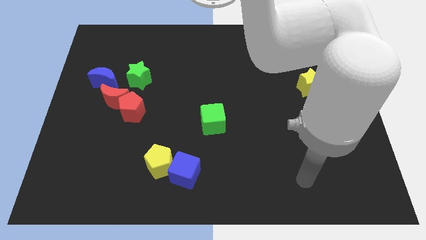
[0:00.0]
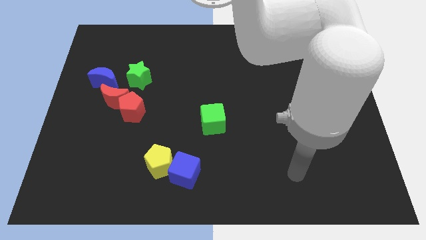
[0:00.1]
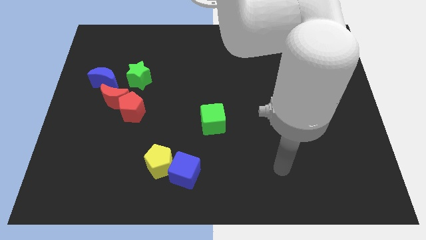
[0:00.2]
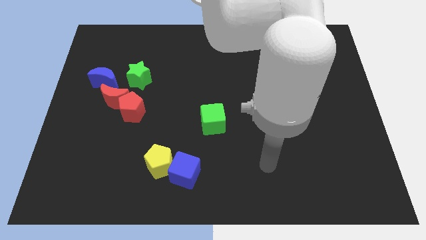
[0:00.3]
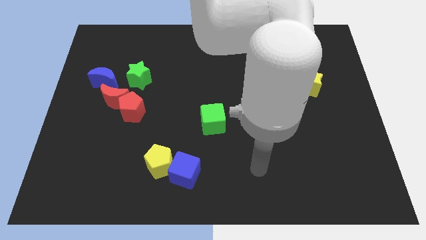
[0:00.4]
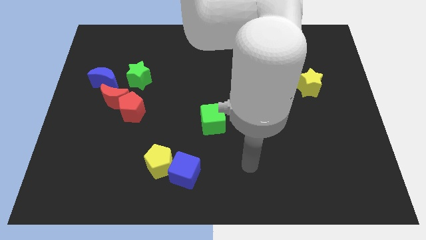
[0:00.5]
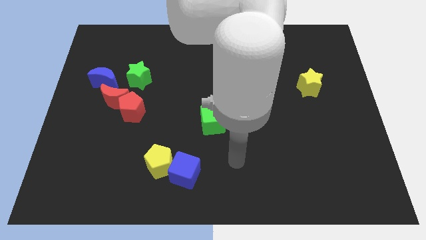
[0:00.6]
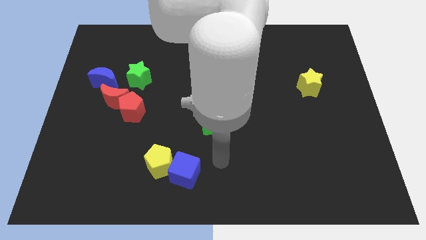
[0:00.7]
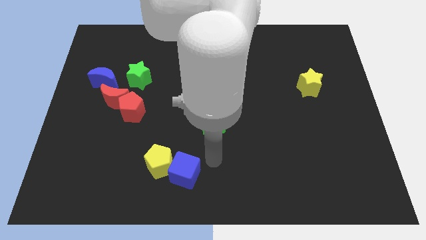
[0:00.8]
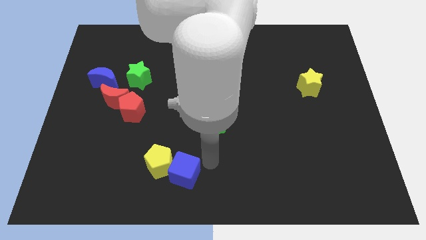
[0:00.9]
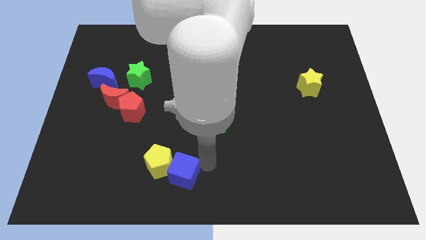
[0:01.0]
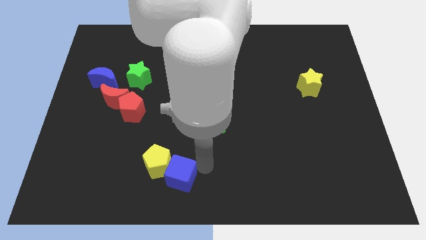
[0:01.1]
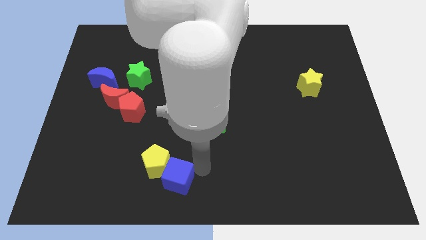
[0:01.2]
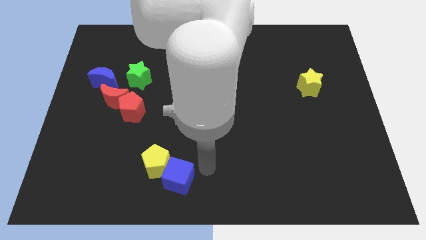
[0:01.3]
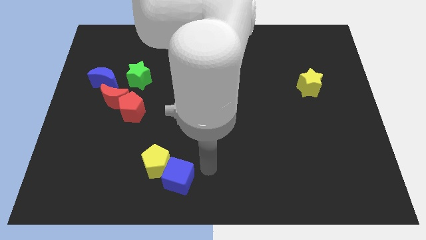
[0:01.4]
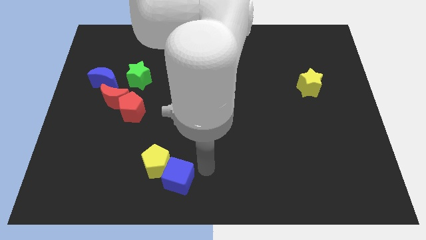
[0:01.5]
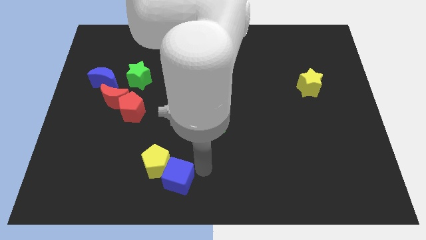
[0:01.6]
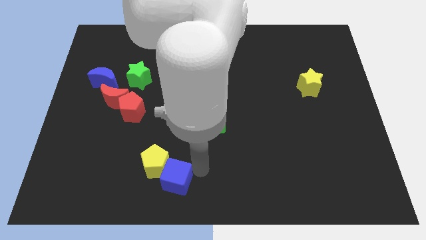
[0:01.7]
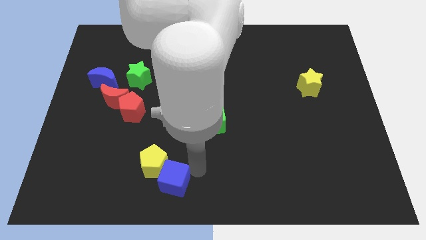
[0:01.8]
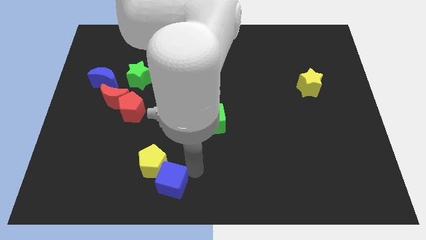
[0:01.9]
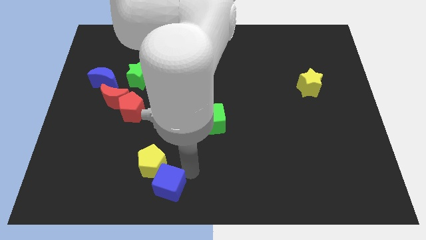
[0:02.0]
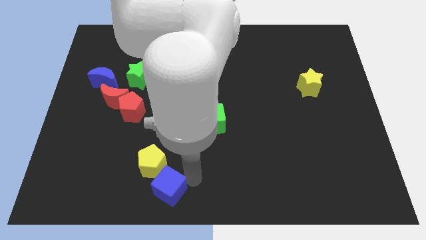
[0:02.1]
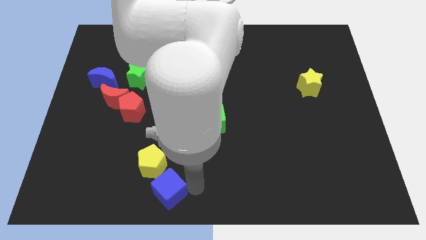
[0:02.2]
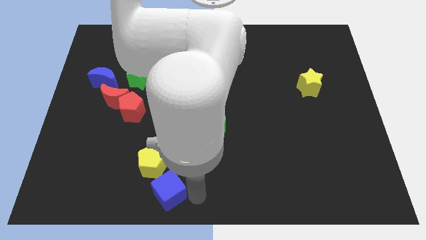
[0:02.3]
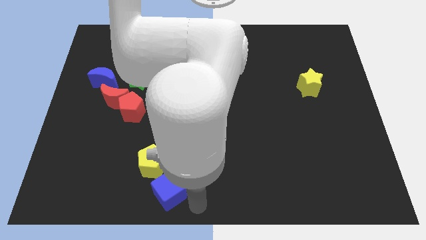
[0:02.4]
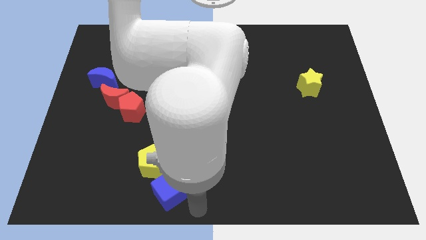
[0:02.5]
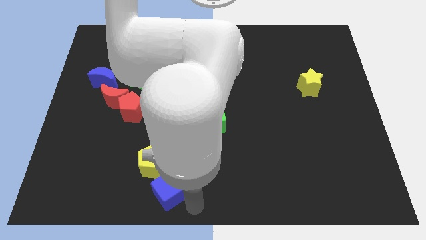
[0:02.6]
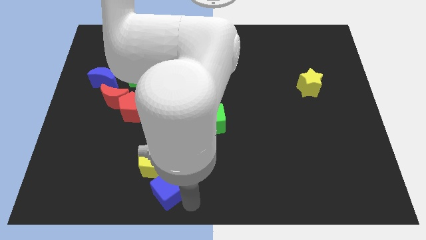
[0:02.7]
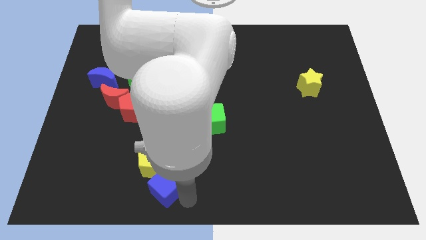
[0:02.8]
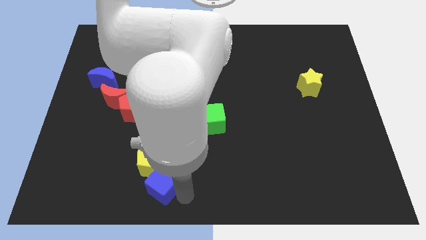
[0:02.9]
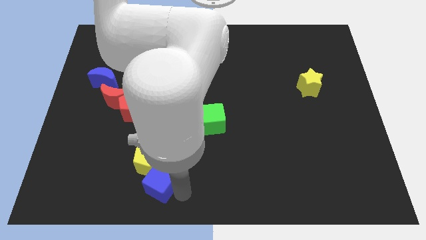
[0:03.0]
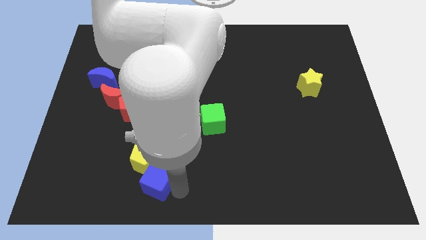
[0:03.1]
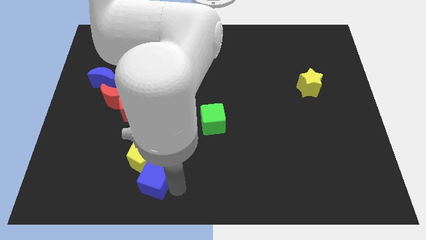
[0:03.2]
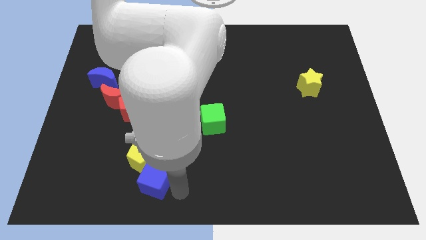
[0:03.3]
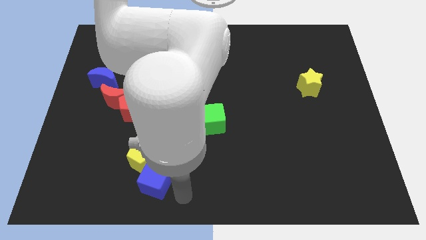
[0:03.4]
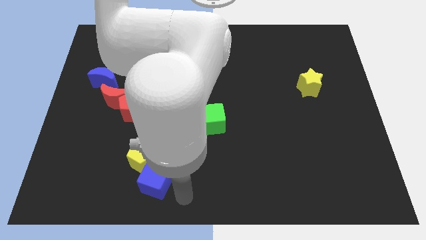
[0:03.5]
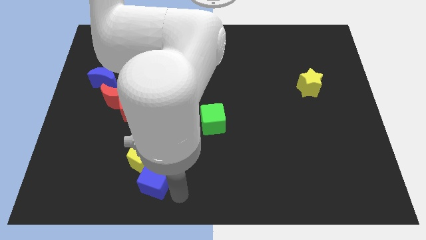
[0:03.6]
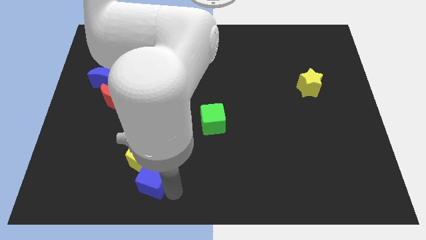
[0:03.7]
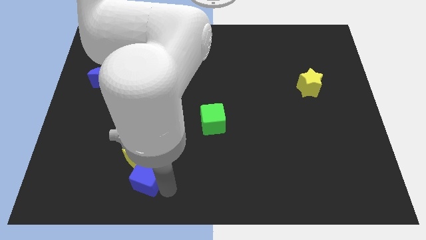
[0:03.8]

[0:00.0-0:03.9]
slide the blue cube a little bit left

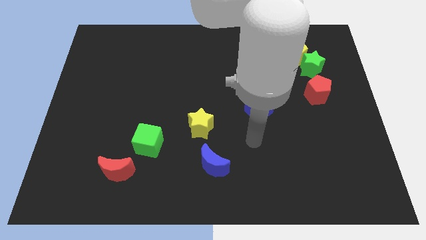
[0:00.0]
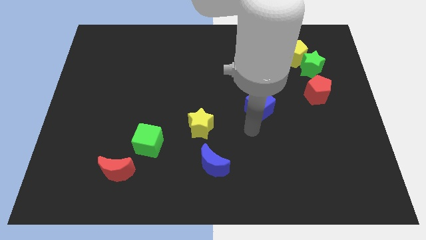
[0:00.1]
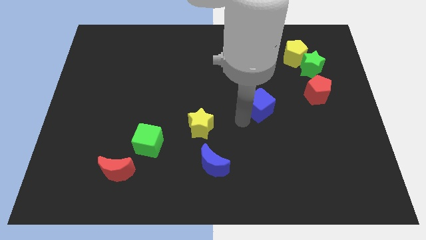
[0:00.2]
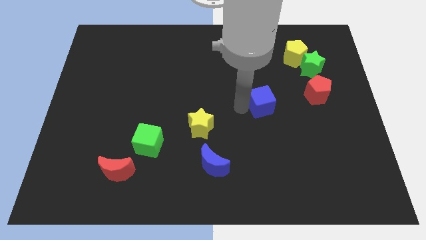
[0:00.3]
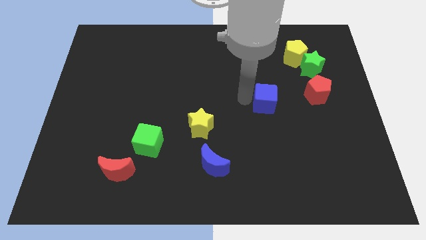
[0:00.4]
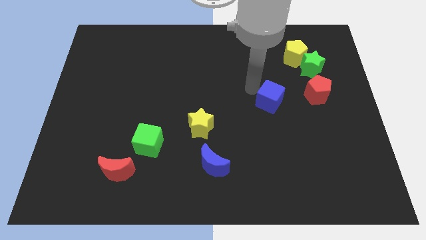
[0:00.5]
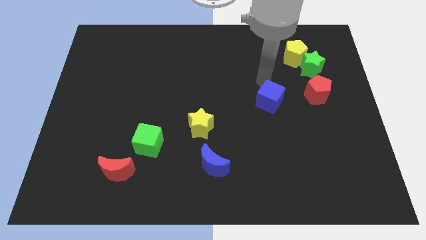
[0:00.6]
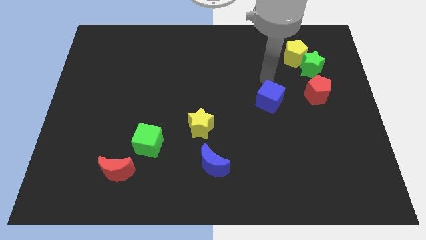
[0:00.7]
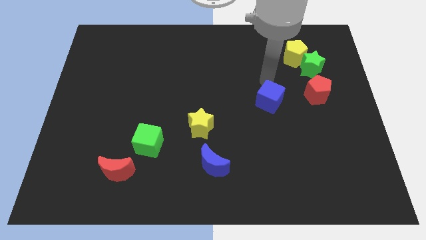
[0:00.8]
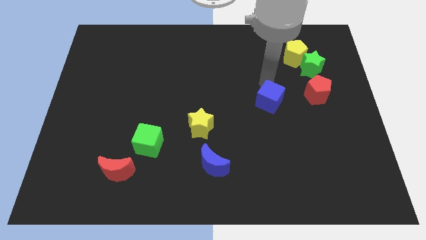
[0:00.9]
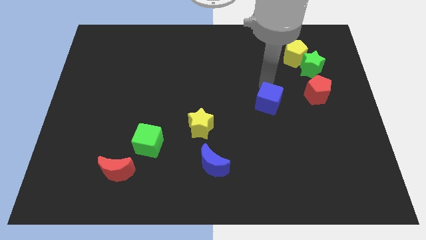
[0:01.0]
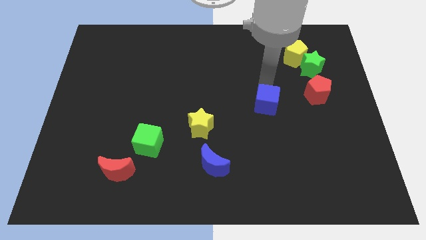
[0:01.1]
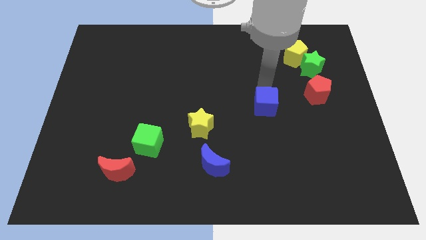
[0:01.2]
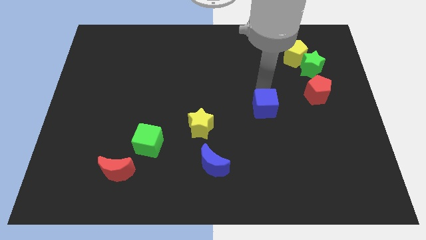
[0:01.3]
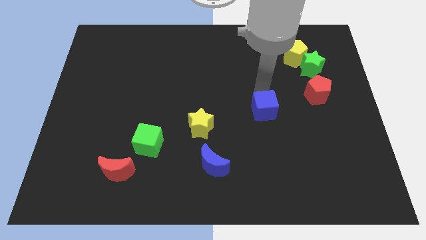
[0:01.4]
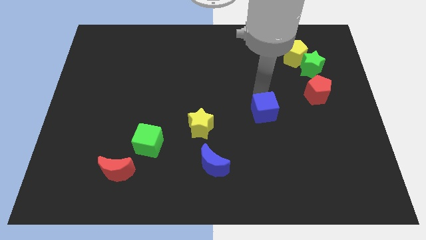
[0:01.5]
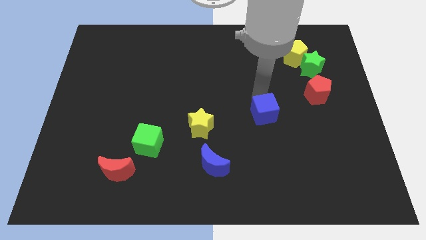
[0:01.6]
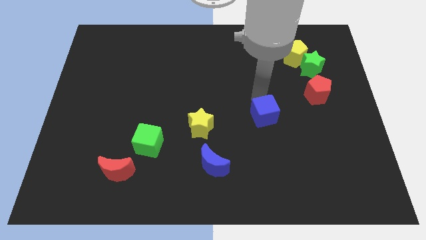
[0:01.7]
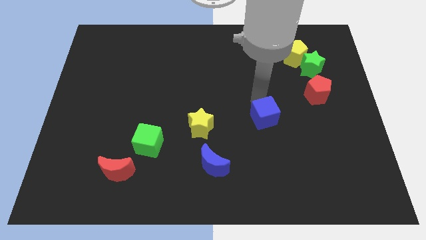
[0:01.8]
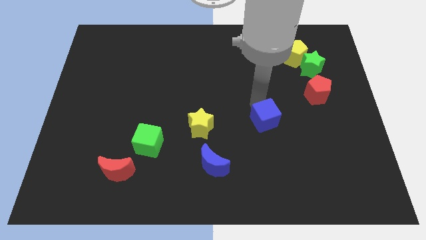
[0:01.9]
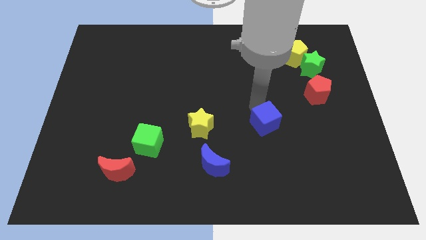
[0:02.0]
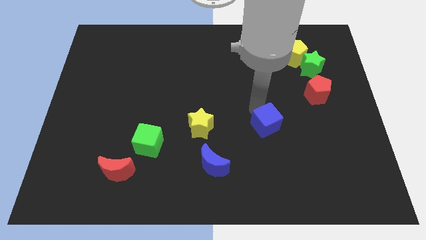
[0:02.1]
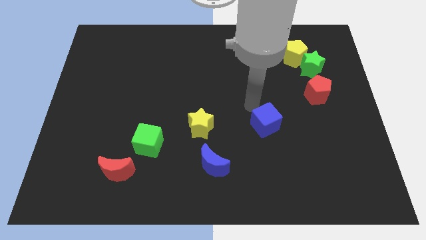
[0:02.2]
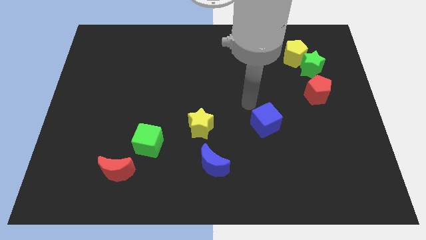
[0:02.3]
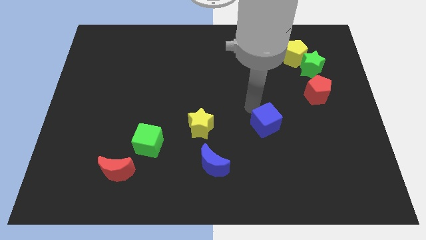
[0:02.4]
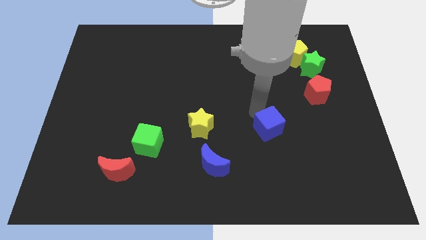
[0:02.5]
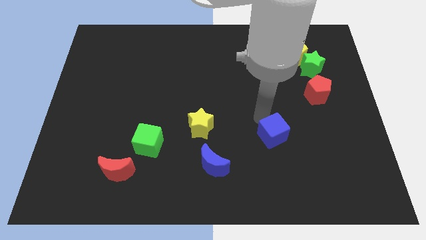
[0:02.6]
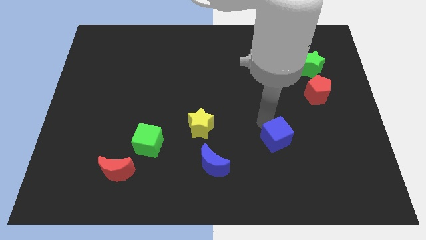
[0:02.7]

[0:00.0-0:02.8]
move the blue cube a bit diagonally downwards and right

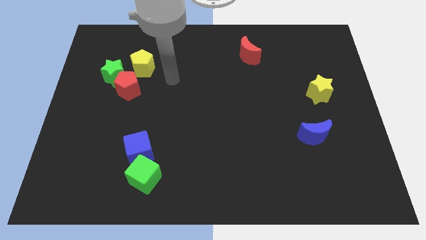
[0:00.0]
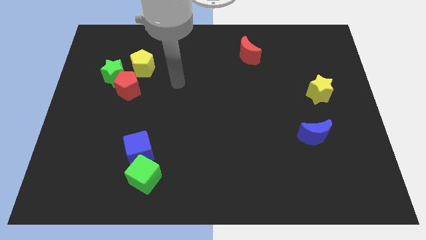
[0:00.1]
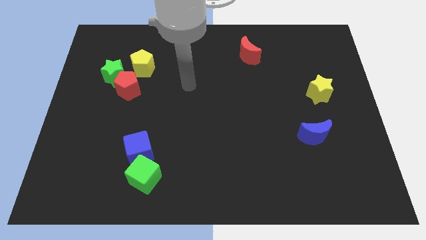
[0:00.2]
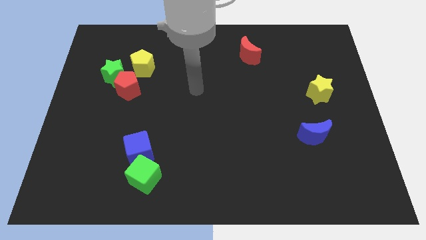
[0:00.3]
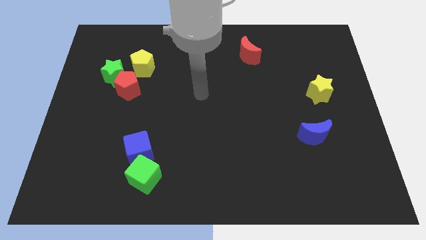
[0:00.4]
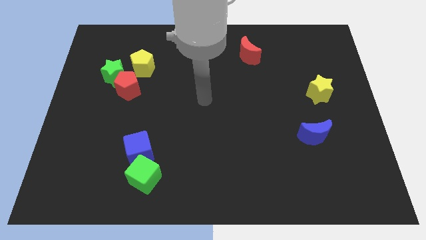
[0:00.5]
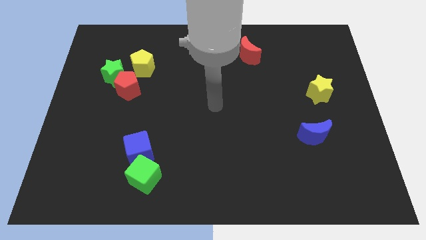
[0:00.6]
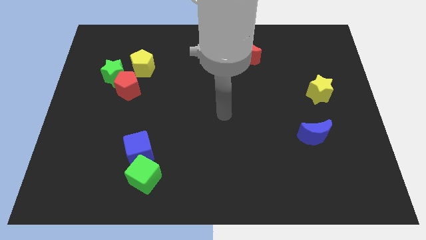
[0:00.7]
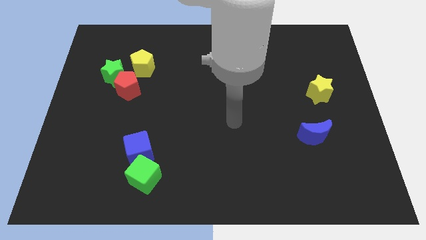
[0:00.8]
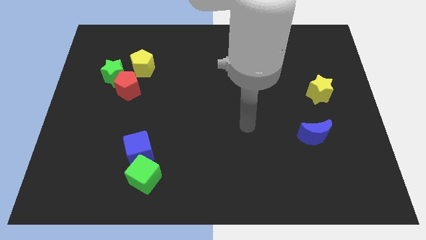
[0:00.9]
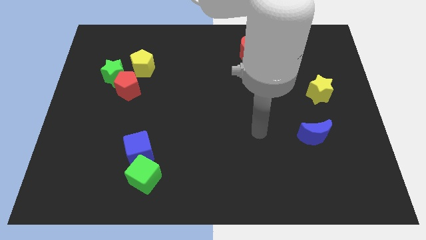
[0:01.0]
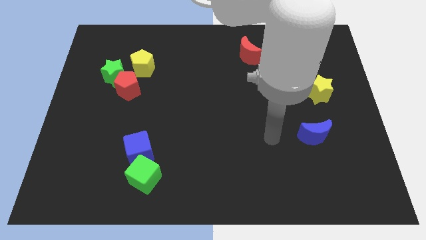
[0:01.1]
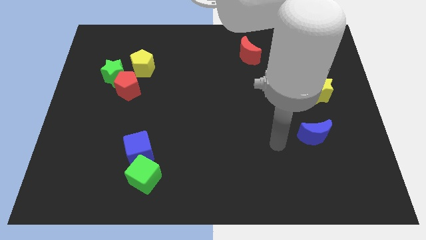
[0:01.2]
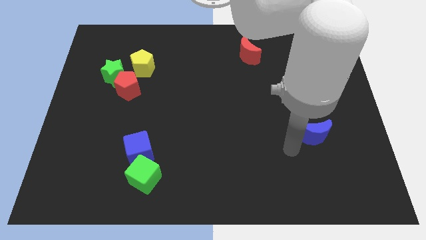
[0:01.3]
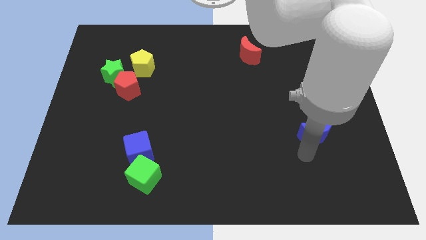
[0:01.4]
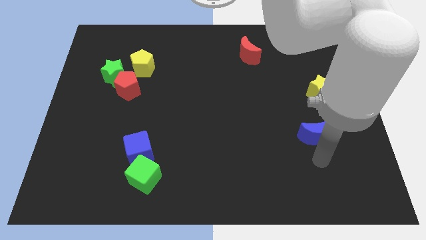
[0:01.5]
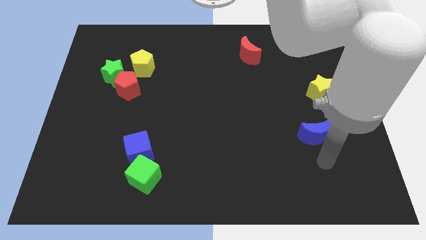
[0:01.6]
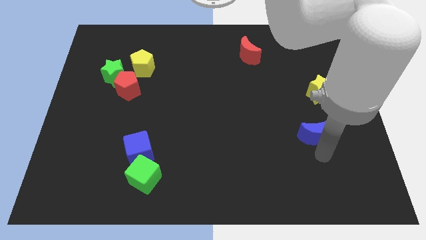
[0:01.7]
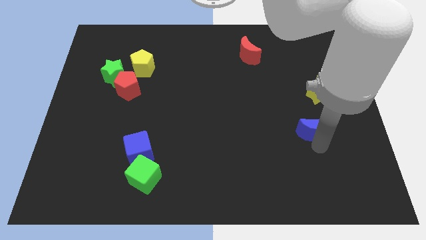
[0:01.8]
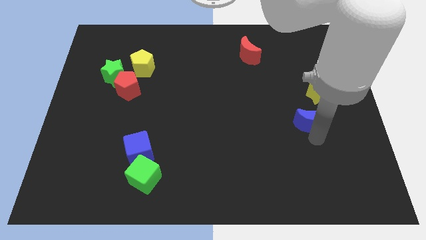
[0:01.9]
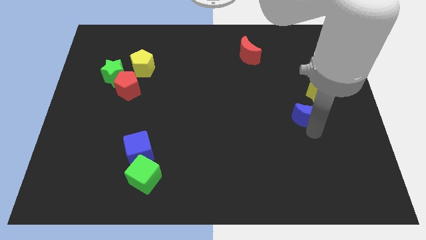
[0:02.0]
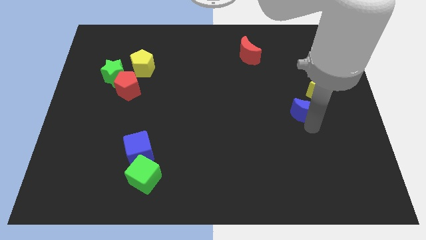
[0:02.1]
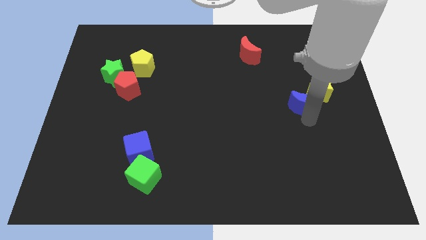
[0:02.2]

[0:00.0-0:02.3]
slightly push the blue moon upwards
